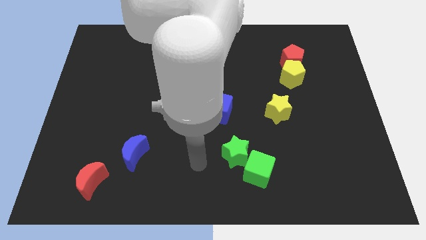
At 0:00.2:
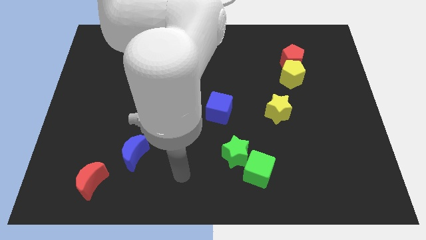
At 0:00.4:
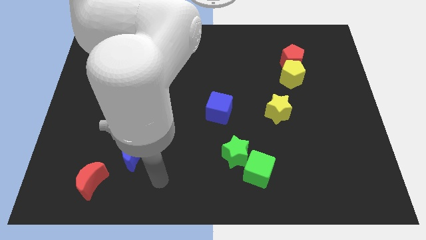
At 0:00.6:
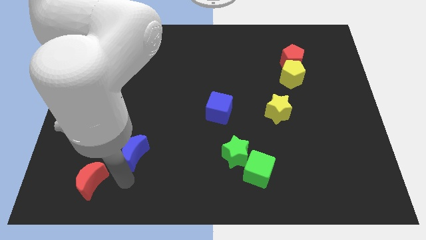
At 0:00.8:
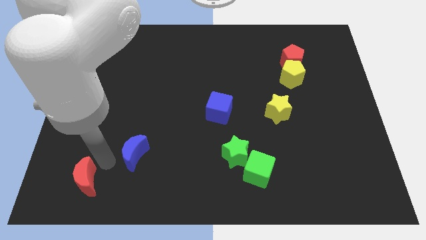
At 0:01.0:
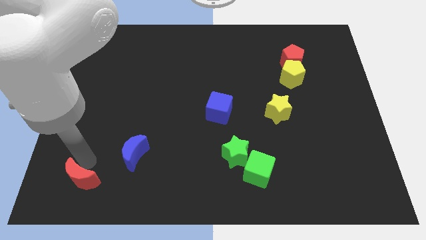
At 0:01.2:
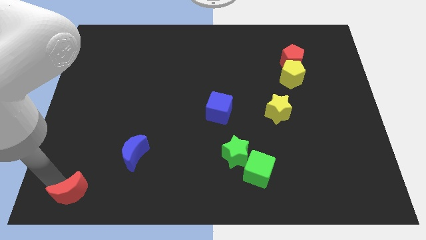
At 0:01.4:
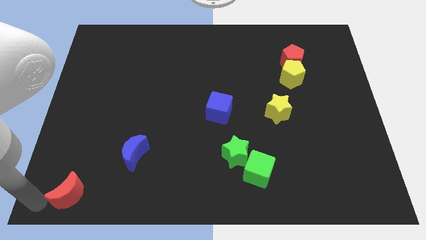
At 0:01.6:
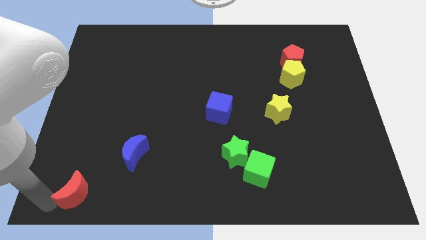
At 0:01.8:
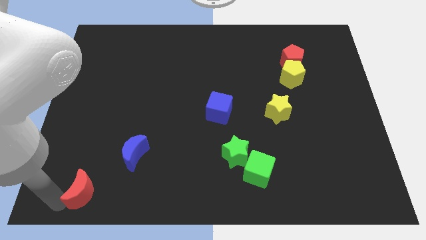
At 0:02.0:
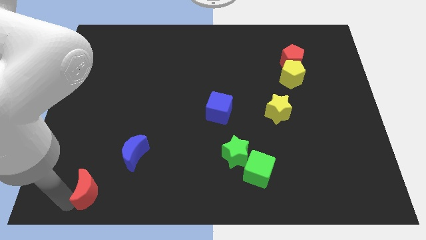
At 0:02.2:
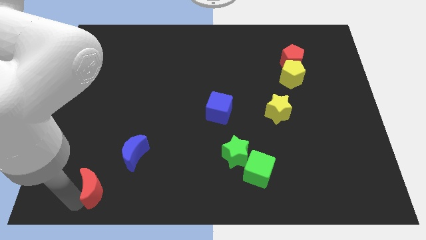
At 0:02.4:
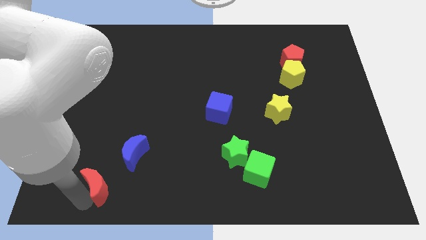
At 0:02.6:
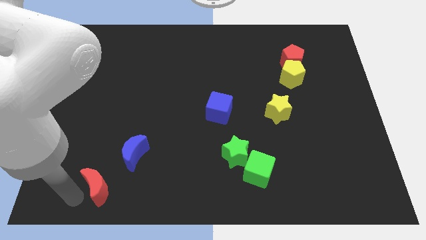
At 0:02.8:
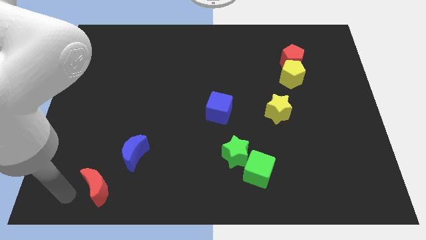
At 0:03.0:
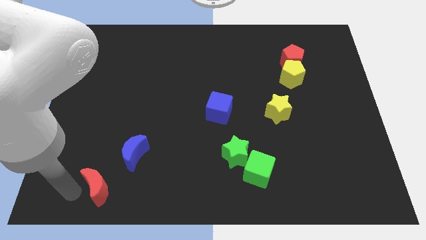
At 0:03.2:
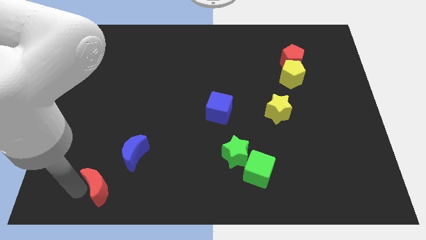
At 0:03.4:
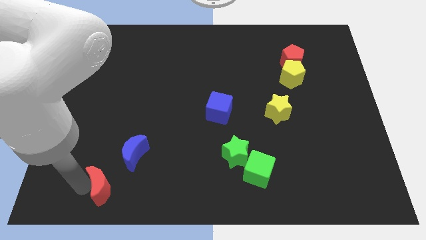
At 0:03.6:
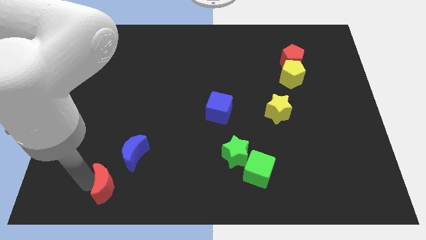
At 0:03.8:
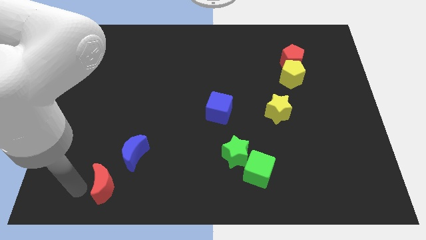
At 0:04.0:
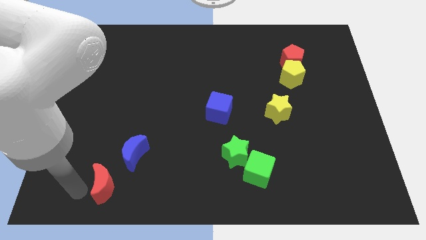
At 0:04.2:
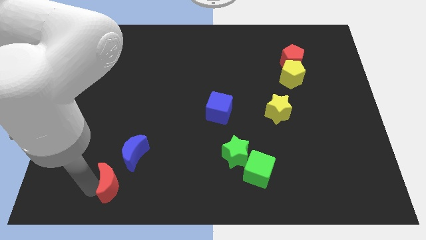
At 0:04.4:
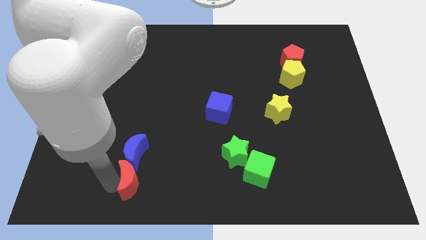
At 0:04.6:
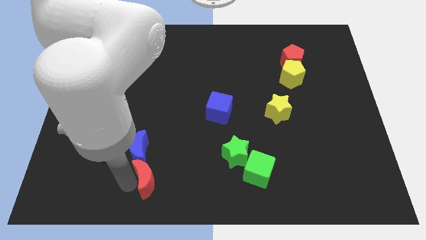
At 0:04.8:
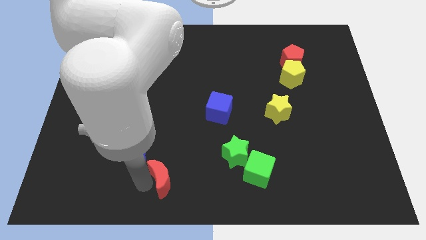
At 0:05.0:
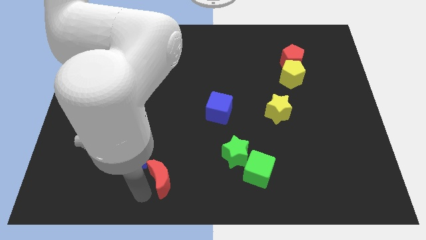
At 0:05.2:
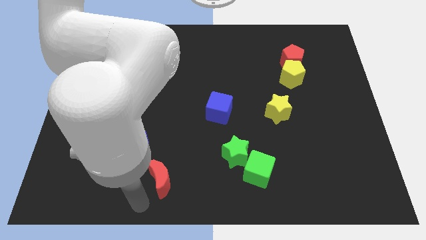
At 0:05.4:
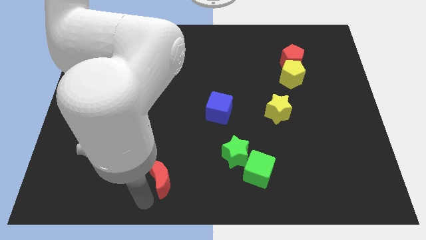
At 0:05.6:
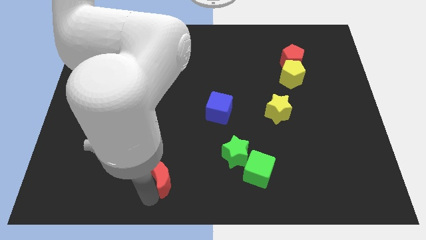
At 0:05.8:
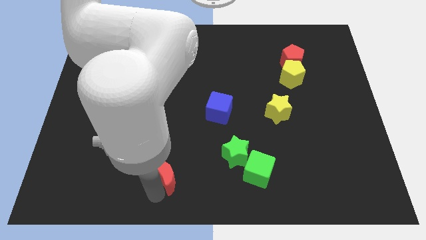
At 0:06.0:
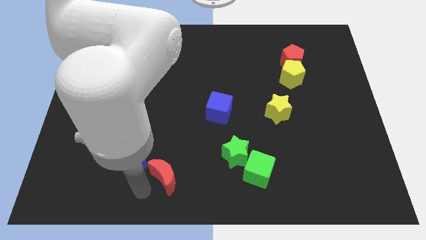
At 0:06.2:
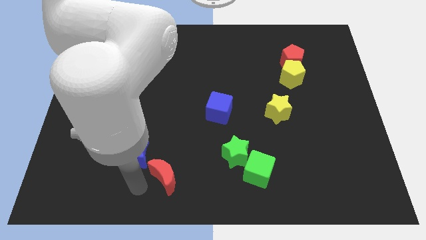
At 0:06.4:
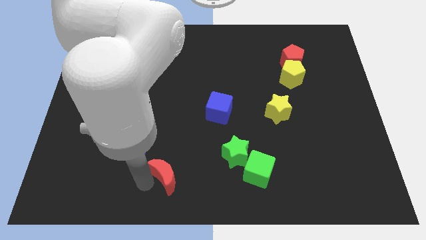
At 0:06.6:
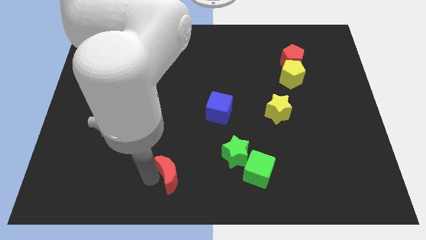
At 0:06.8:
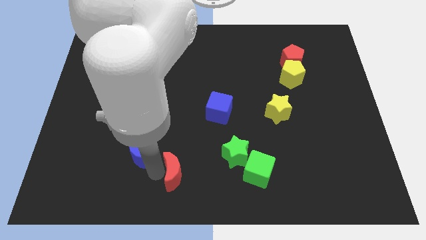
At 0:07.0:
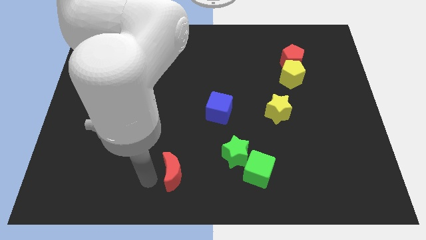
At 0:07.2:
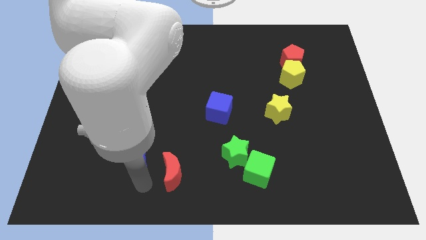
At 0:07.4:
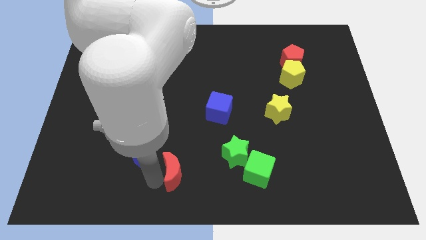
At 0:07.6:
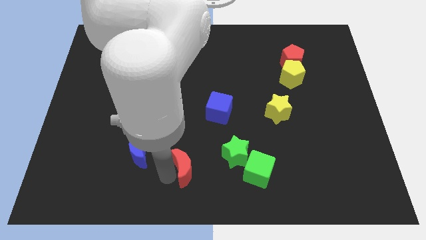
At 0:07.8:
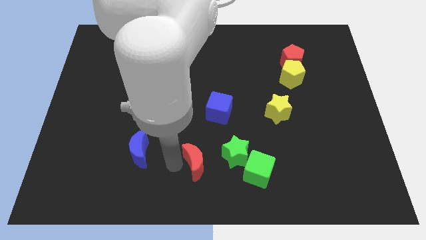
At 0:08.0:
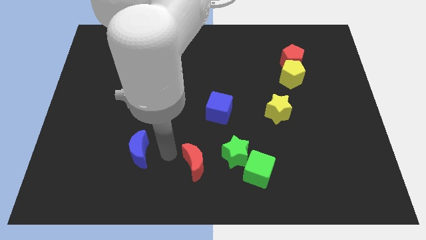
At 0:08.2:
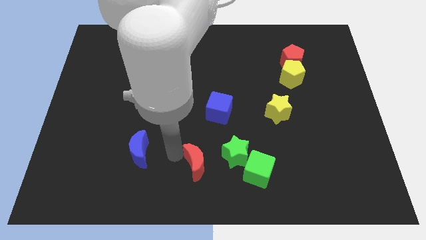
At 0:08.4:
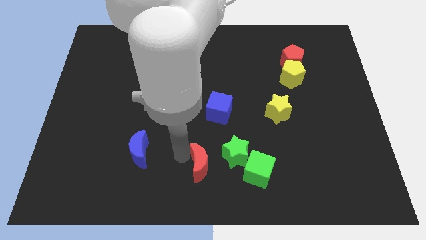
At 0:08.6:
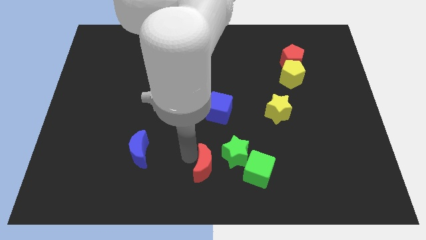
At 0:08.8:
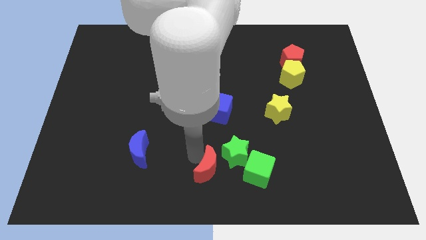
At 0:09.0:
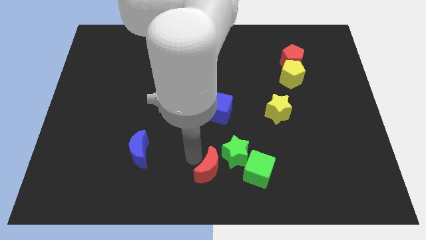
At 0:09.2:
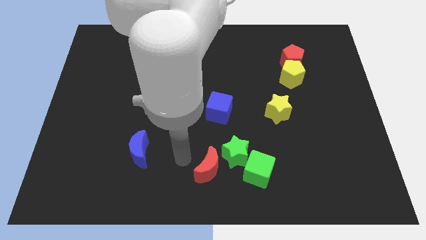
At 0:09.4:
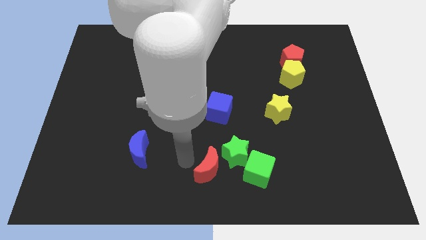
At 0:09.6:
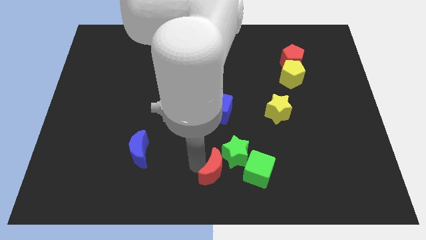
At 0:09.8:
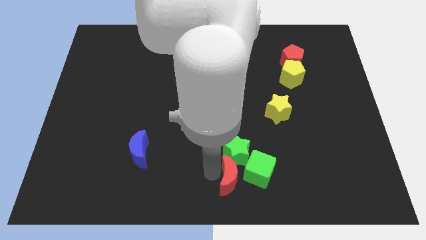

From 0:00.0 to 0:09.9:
move the red moon towards the green cube

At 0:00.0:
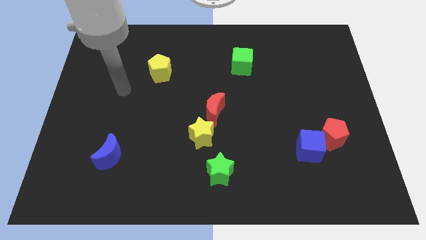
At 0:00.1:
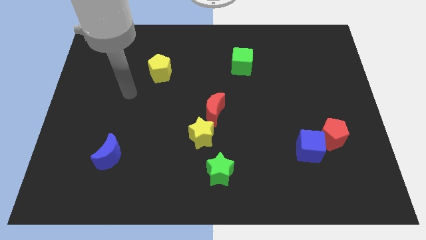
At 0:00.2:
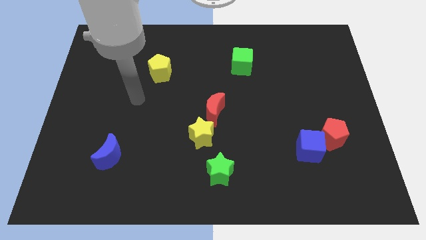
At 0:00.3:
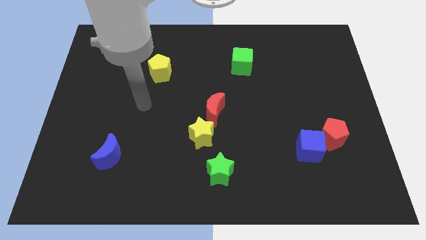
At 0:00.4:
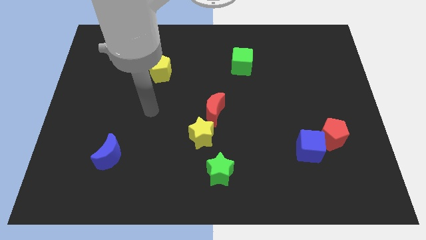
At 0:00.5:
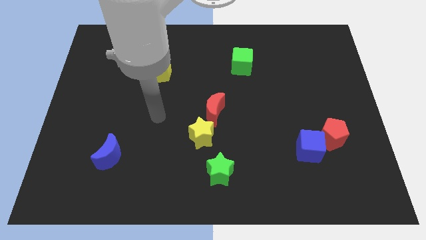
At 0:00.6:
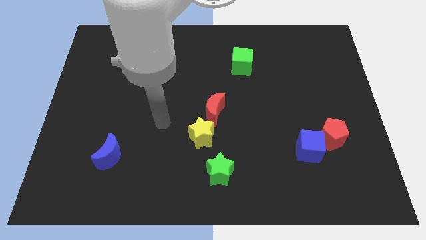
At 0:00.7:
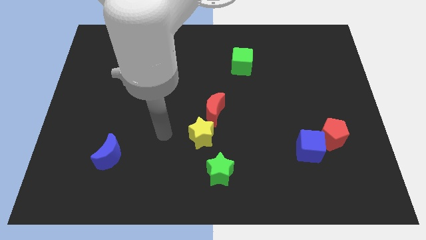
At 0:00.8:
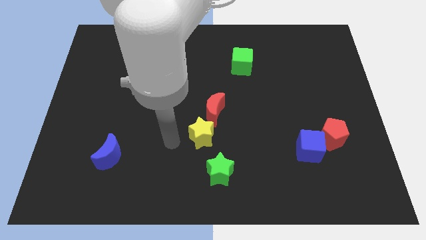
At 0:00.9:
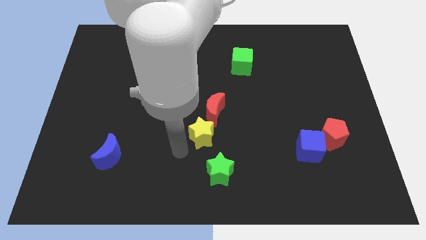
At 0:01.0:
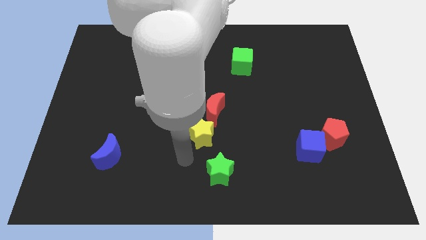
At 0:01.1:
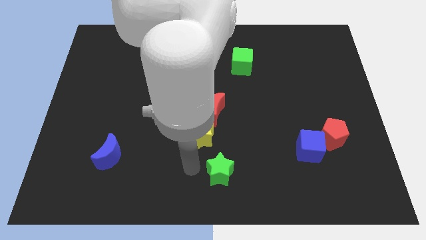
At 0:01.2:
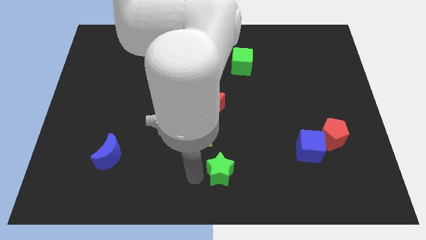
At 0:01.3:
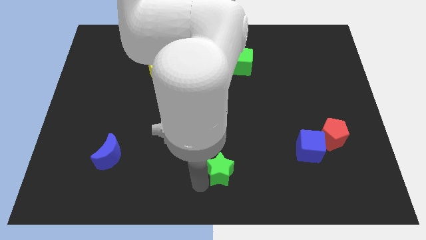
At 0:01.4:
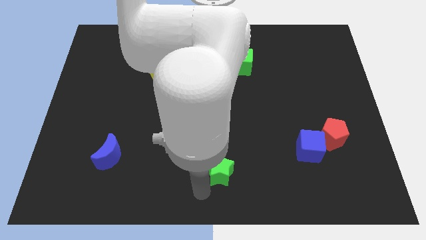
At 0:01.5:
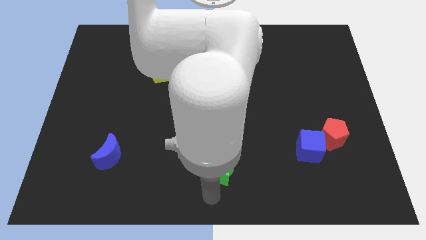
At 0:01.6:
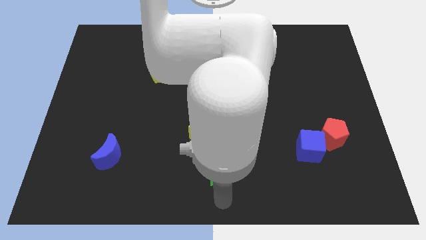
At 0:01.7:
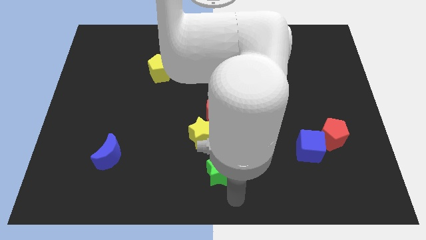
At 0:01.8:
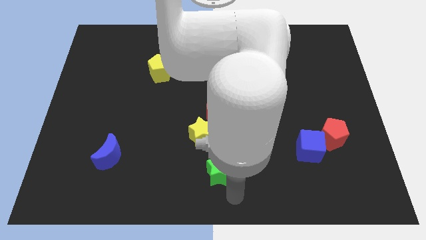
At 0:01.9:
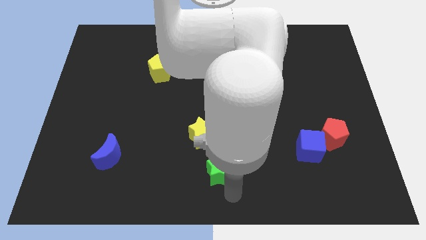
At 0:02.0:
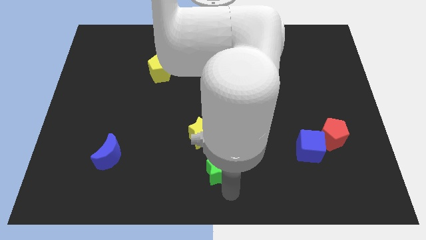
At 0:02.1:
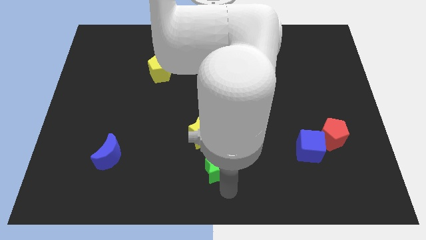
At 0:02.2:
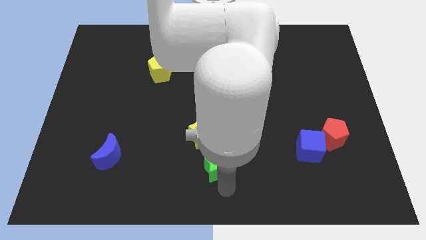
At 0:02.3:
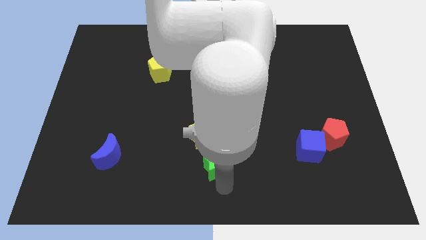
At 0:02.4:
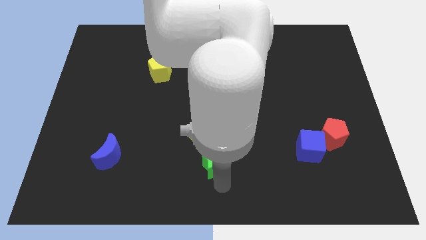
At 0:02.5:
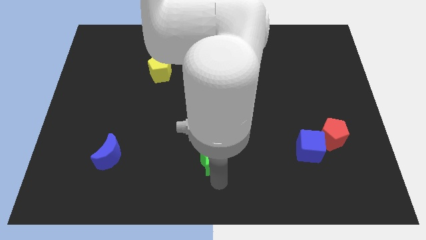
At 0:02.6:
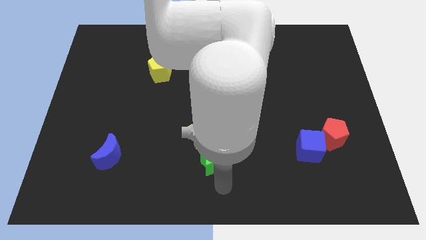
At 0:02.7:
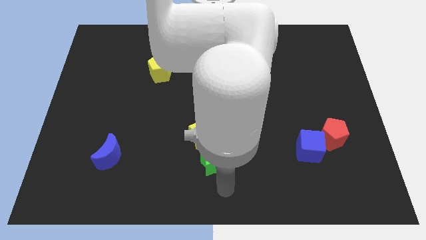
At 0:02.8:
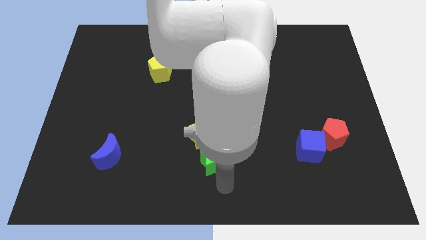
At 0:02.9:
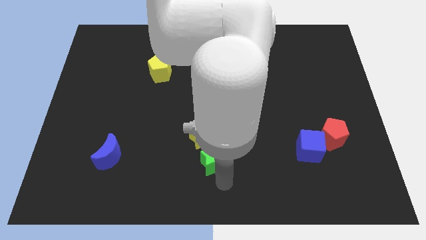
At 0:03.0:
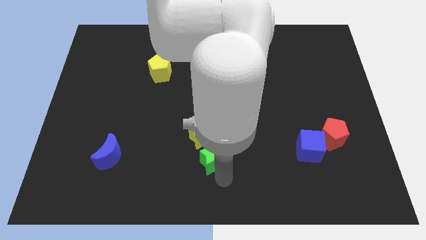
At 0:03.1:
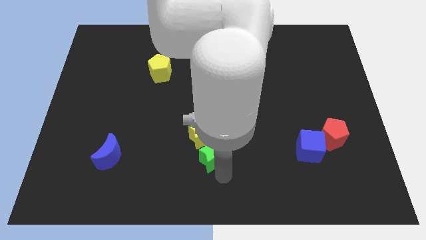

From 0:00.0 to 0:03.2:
push the green star to the yellow star
